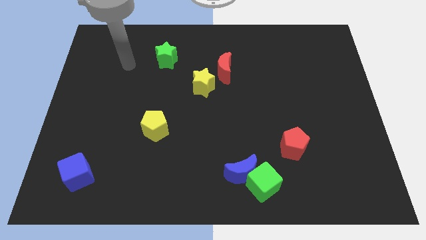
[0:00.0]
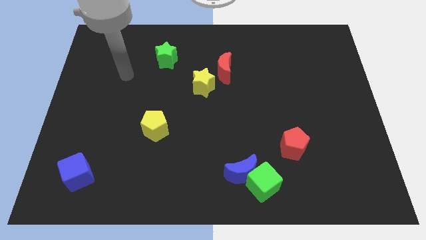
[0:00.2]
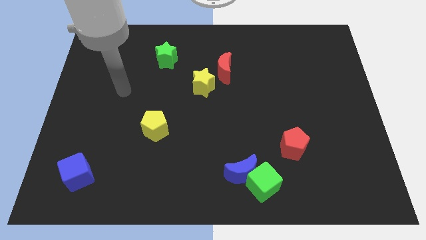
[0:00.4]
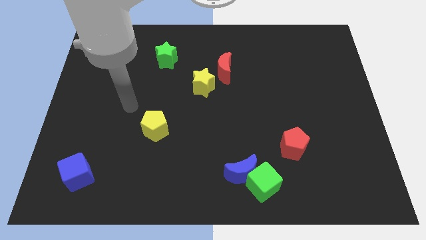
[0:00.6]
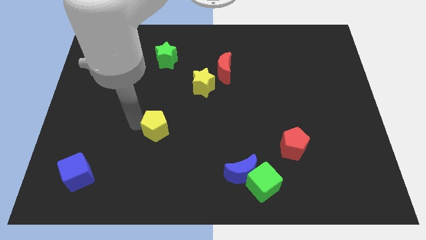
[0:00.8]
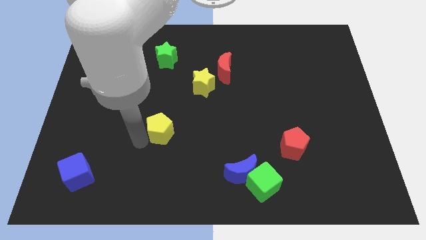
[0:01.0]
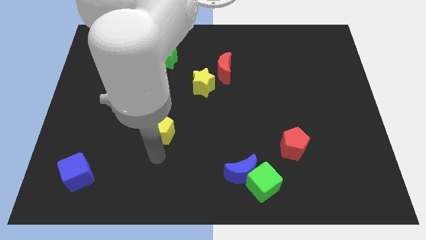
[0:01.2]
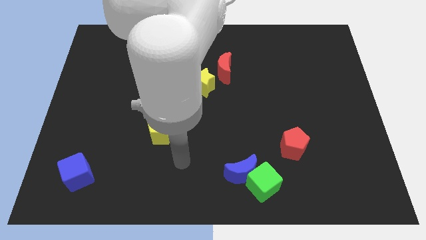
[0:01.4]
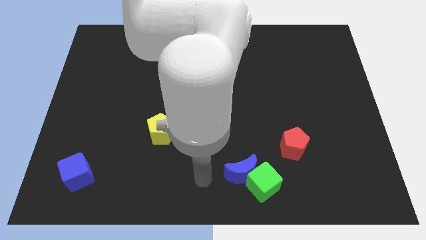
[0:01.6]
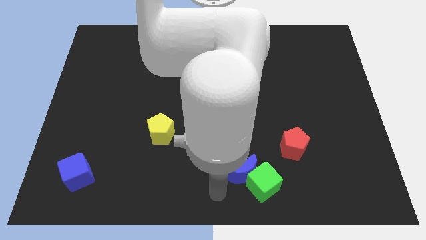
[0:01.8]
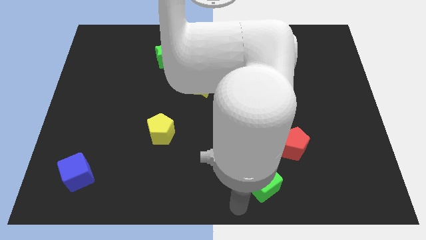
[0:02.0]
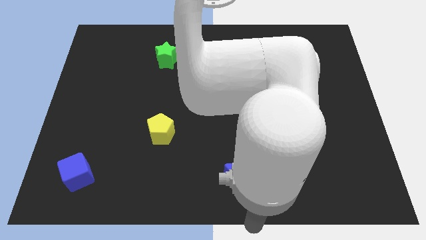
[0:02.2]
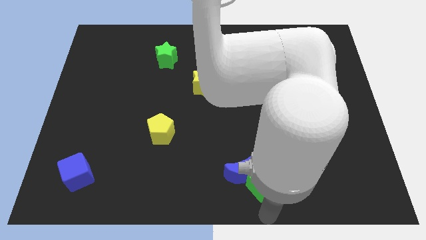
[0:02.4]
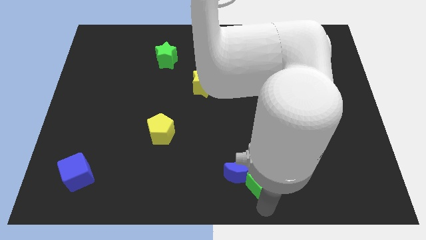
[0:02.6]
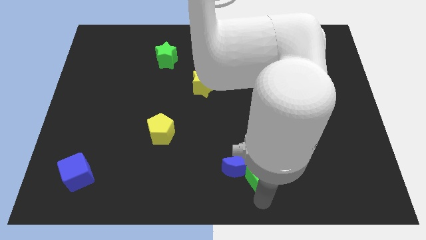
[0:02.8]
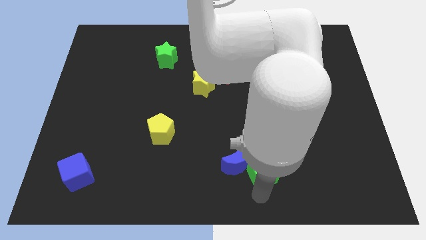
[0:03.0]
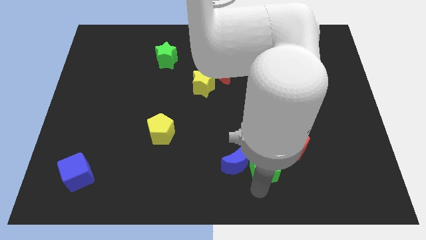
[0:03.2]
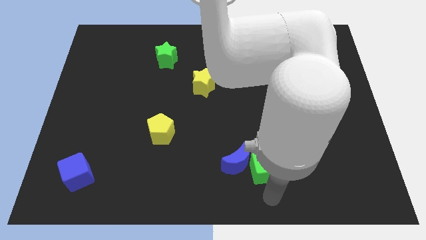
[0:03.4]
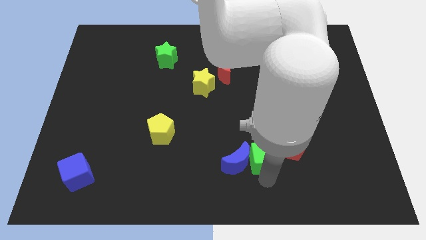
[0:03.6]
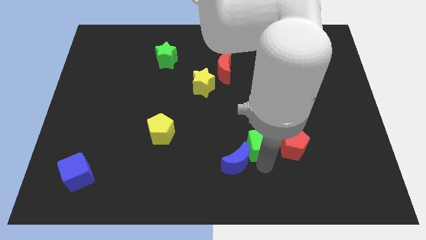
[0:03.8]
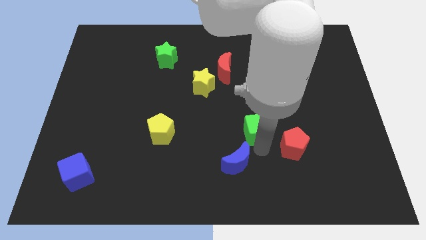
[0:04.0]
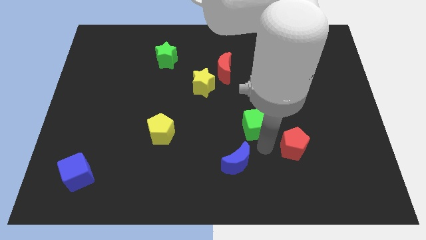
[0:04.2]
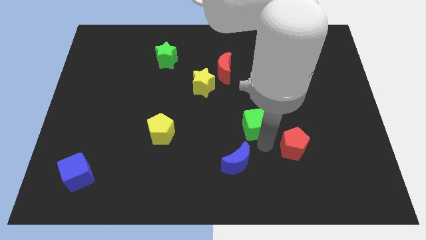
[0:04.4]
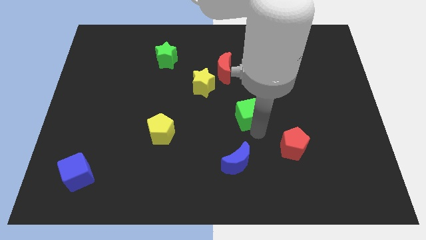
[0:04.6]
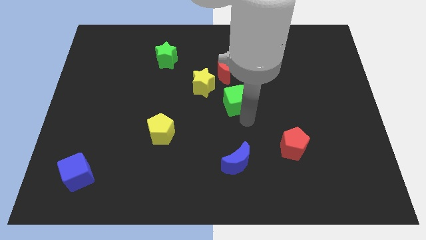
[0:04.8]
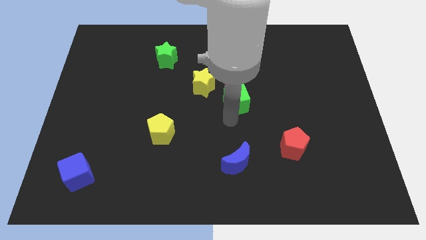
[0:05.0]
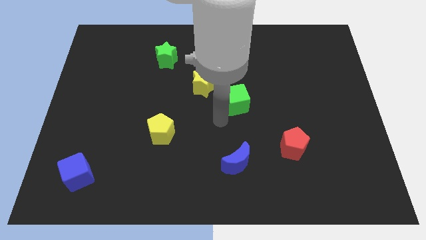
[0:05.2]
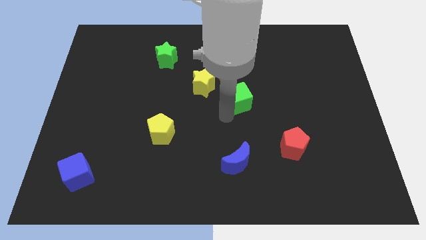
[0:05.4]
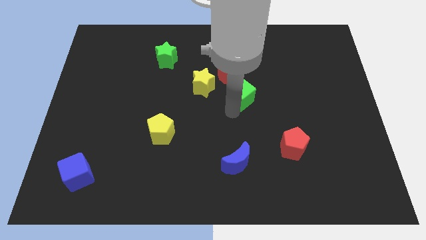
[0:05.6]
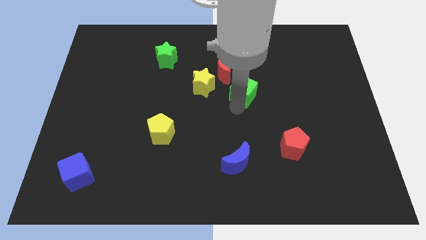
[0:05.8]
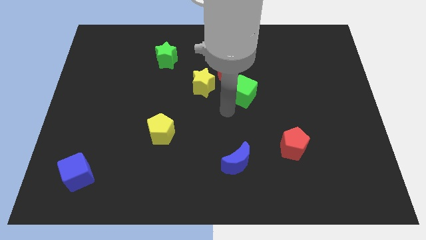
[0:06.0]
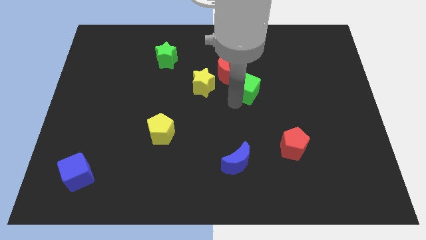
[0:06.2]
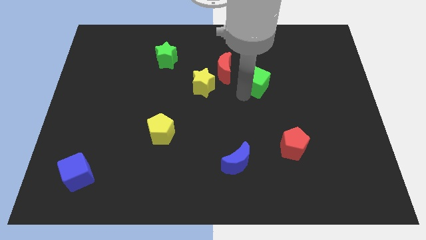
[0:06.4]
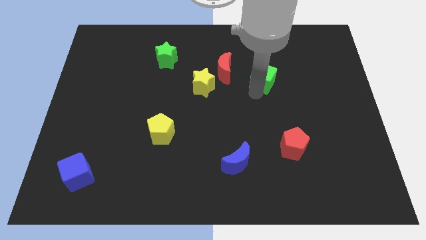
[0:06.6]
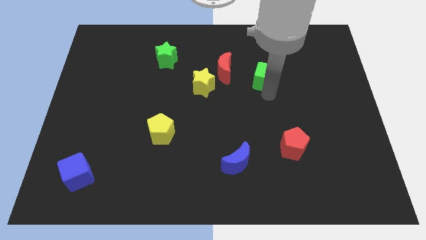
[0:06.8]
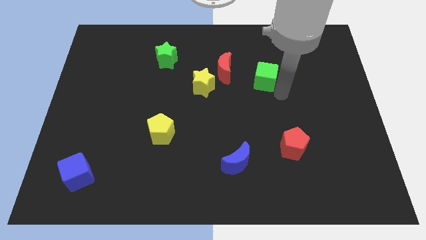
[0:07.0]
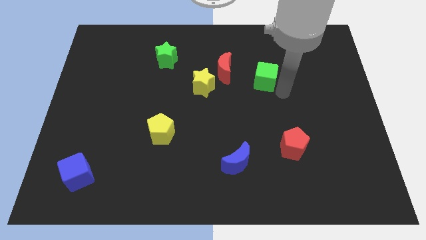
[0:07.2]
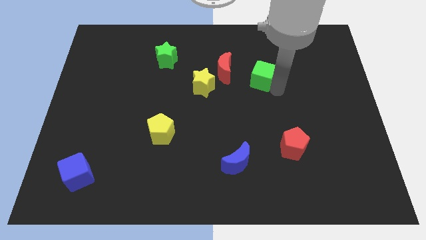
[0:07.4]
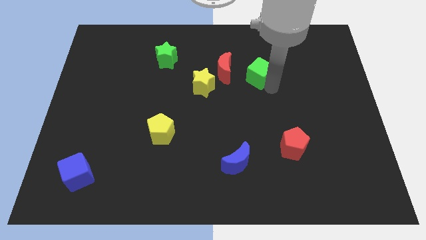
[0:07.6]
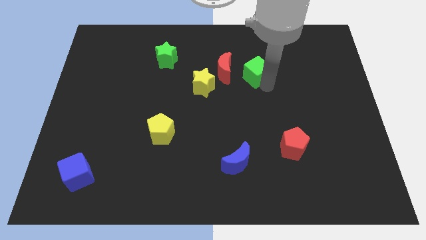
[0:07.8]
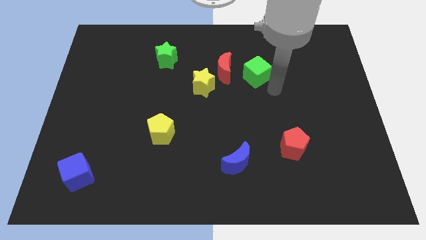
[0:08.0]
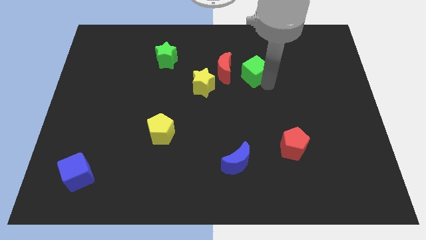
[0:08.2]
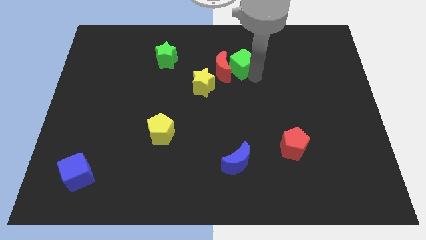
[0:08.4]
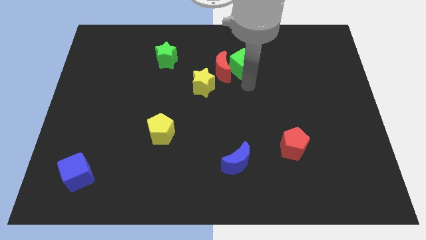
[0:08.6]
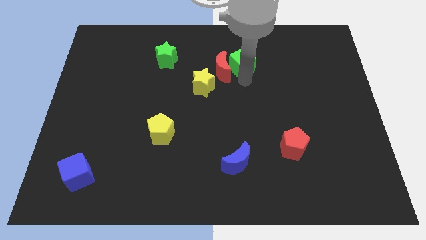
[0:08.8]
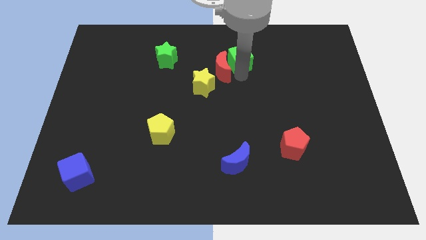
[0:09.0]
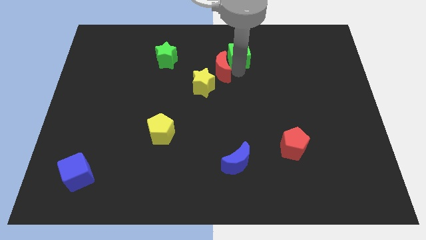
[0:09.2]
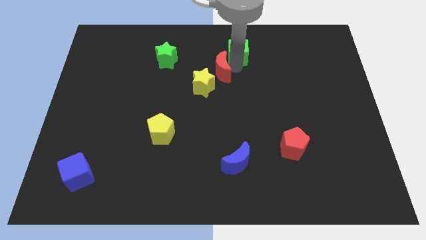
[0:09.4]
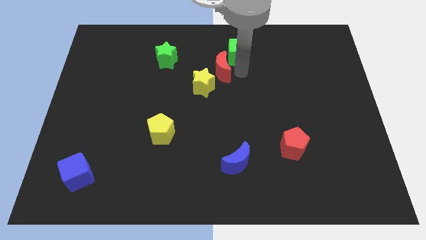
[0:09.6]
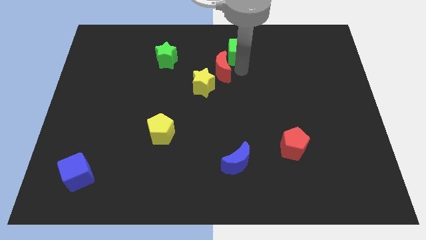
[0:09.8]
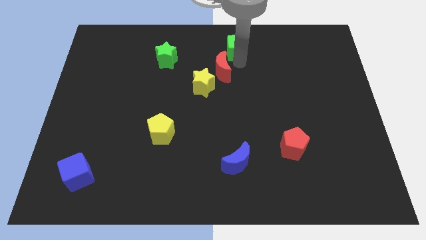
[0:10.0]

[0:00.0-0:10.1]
push the green cube to the top

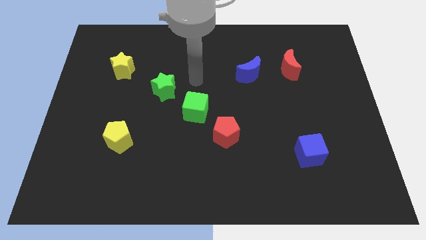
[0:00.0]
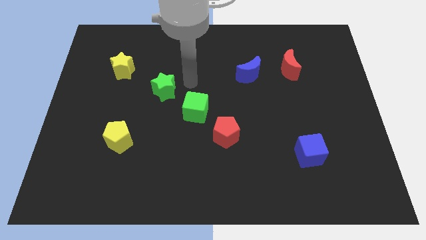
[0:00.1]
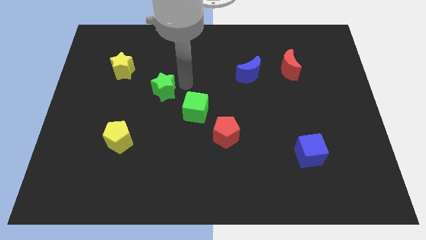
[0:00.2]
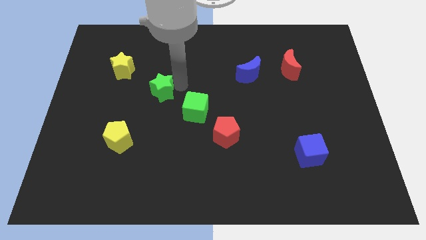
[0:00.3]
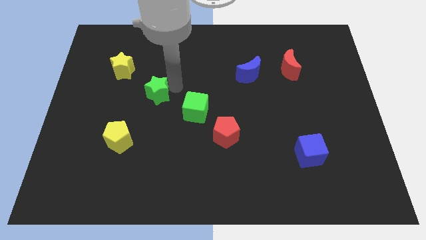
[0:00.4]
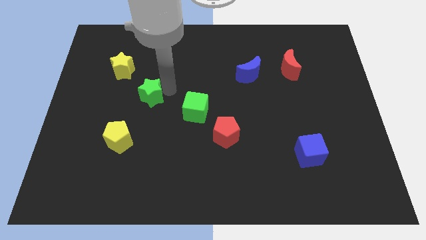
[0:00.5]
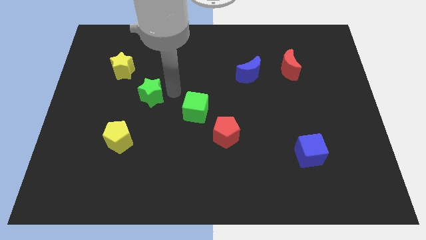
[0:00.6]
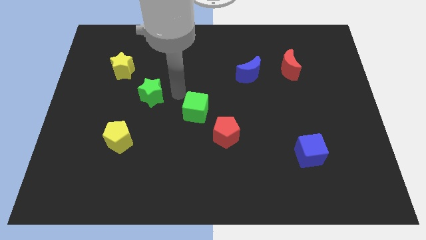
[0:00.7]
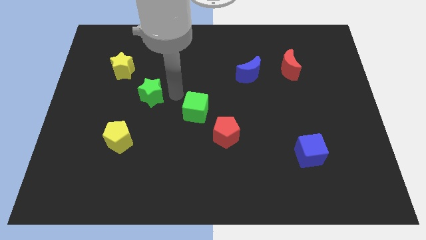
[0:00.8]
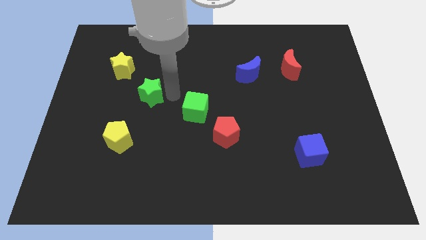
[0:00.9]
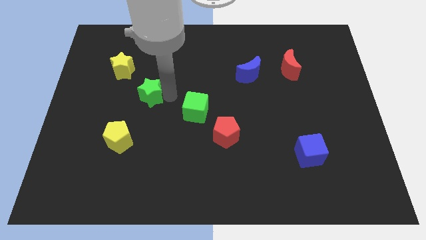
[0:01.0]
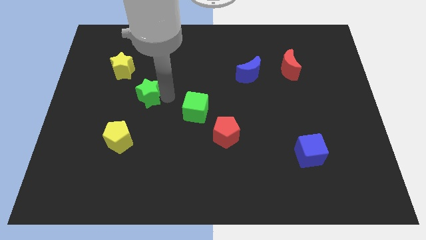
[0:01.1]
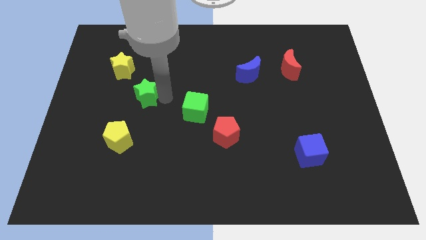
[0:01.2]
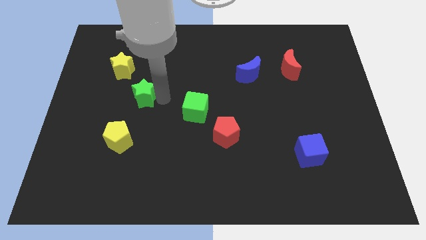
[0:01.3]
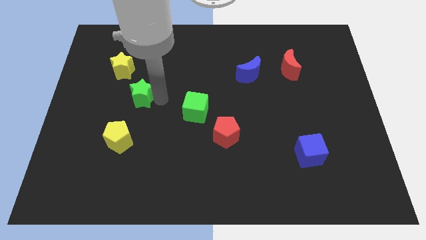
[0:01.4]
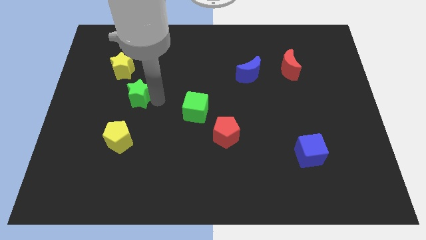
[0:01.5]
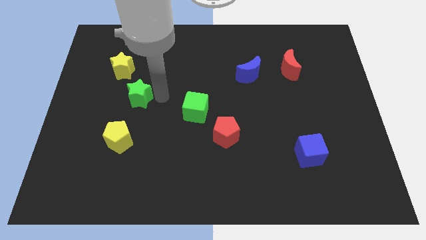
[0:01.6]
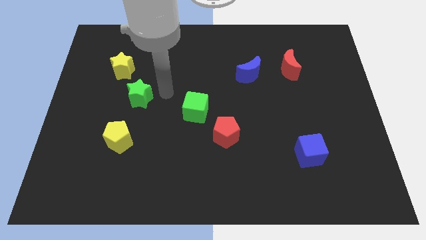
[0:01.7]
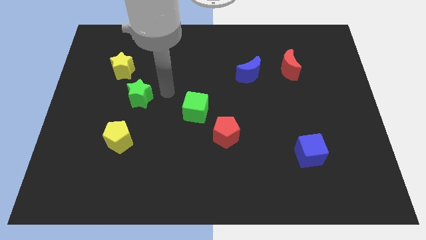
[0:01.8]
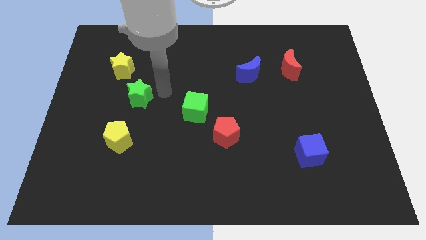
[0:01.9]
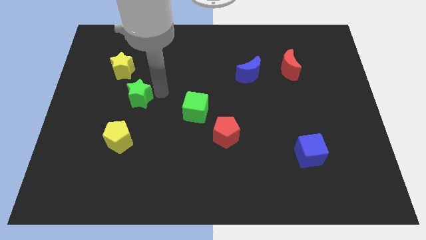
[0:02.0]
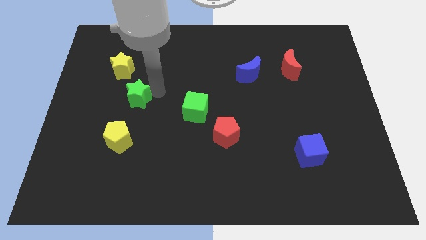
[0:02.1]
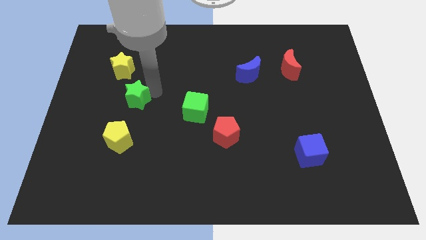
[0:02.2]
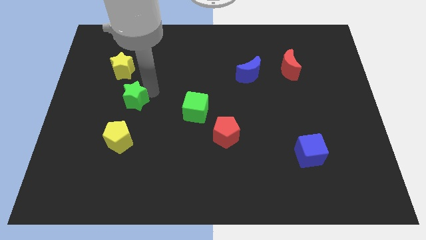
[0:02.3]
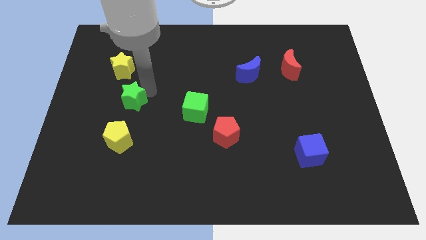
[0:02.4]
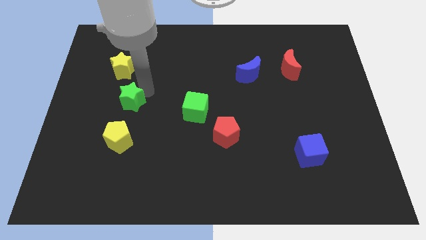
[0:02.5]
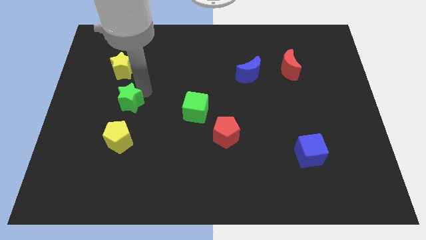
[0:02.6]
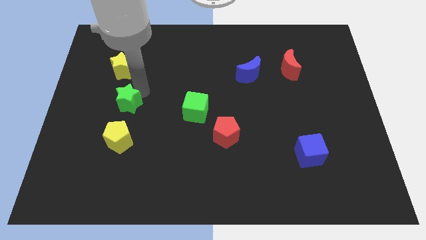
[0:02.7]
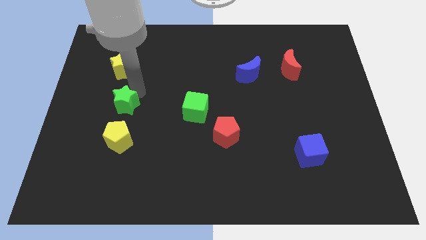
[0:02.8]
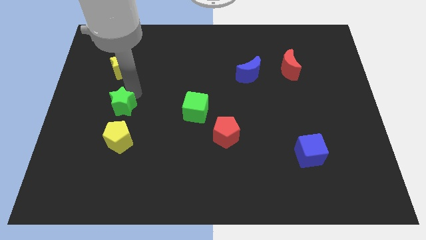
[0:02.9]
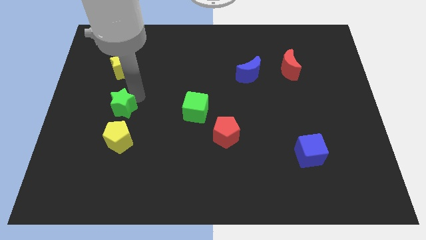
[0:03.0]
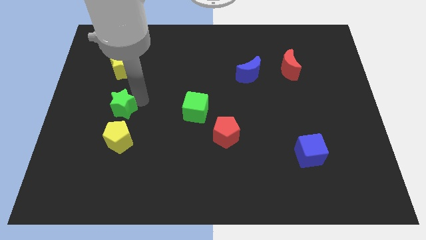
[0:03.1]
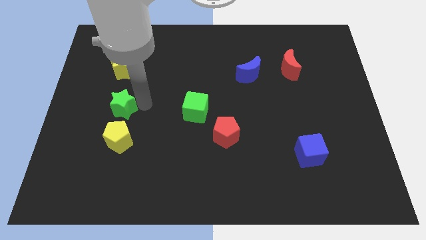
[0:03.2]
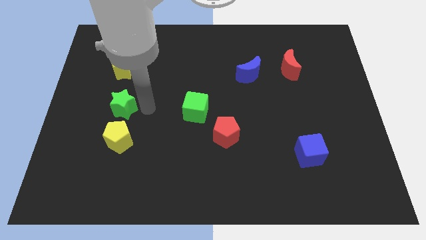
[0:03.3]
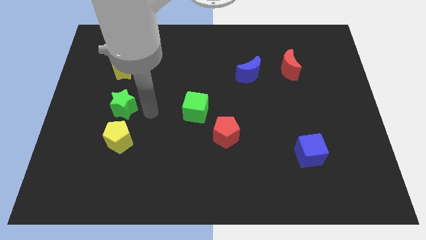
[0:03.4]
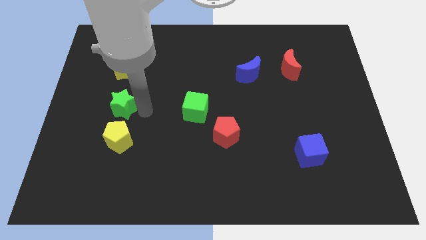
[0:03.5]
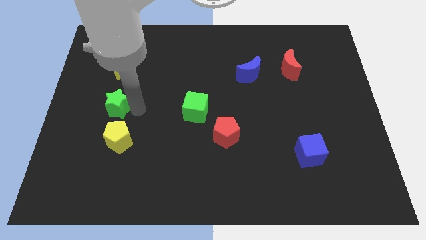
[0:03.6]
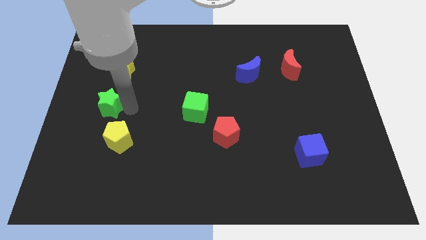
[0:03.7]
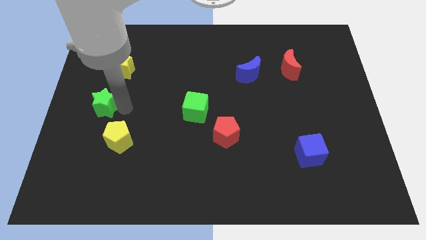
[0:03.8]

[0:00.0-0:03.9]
push the green star to the left side of the board
